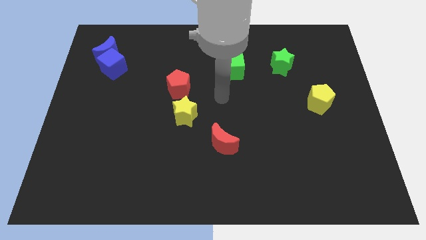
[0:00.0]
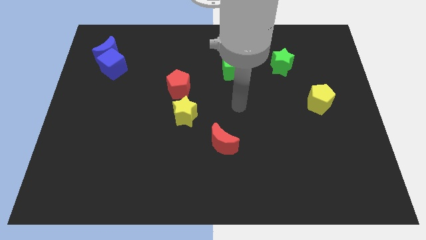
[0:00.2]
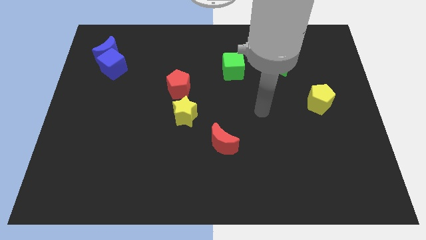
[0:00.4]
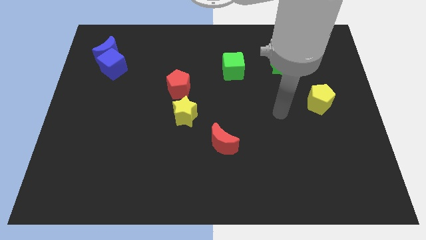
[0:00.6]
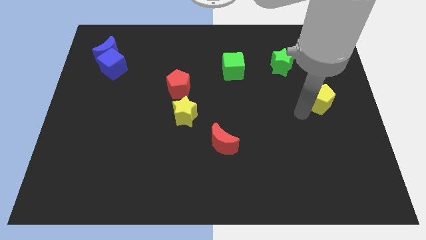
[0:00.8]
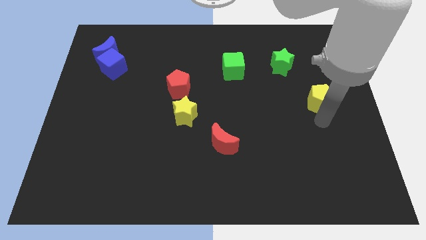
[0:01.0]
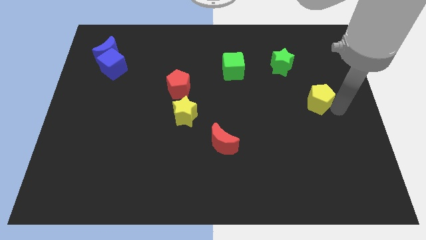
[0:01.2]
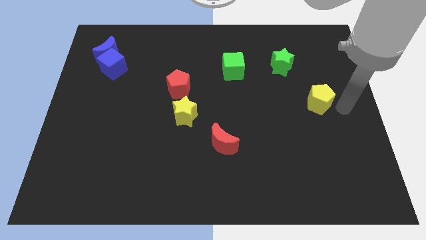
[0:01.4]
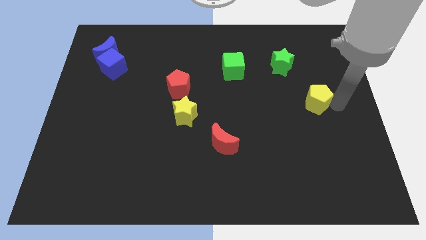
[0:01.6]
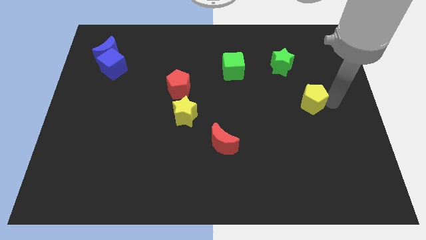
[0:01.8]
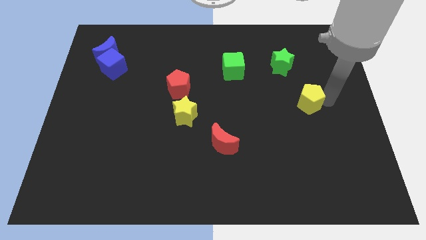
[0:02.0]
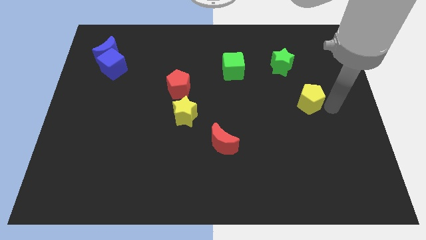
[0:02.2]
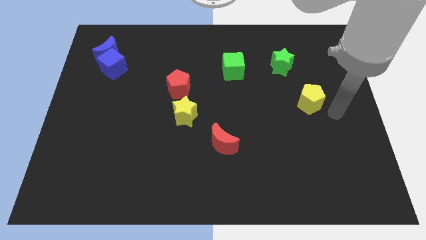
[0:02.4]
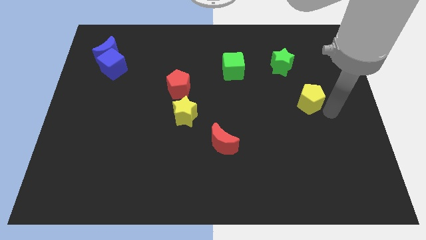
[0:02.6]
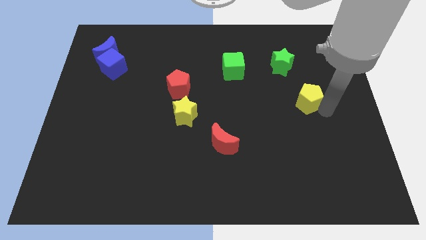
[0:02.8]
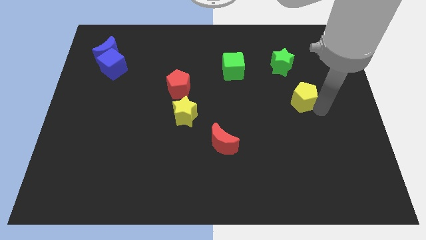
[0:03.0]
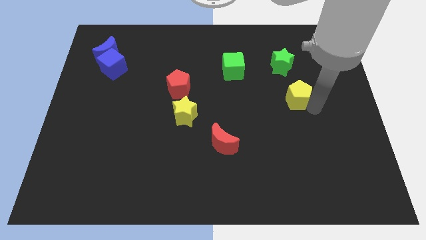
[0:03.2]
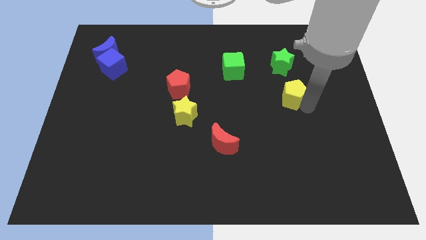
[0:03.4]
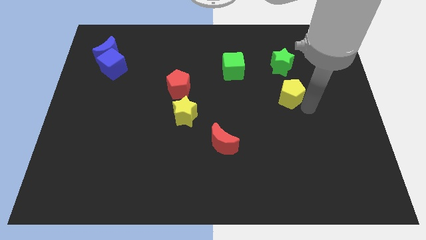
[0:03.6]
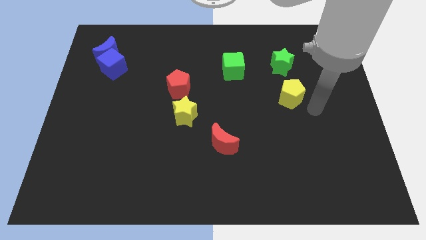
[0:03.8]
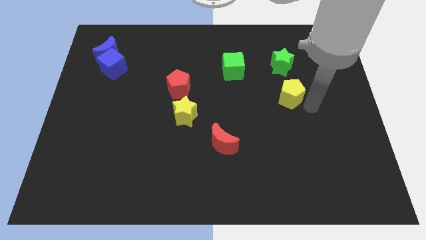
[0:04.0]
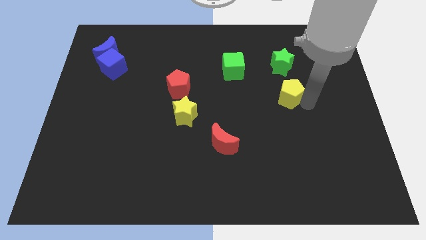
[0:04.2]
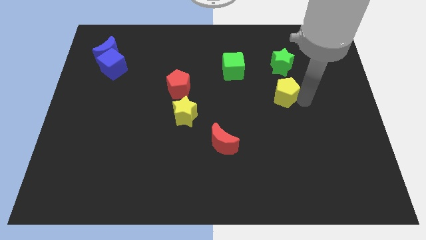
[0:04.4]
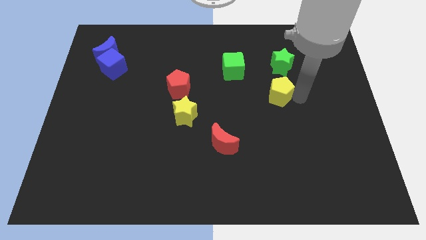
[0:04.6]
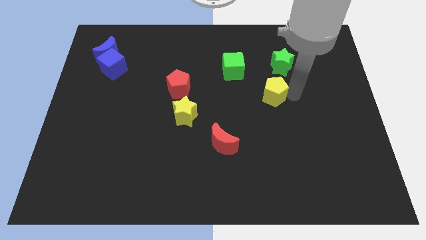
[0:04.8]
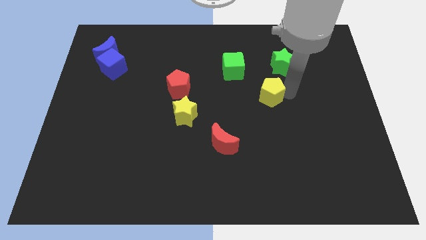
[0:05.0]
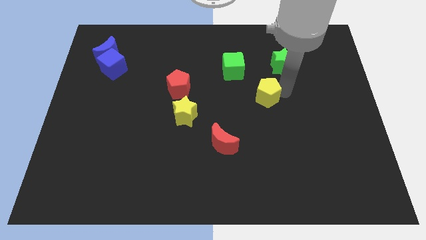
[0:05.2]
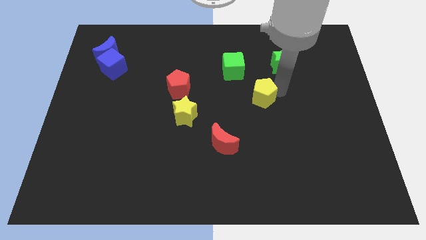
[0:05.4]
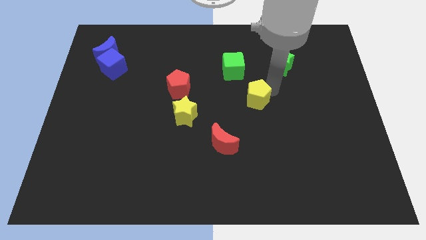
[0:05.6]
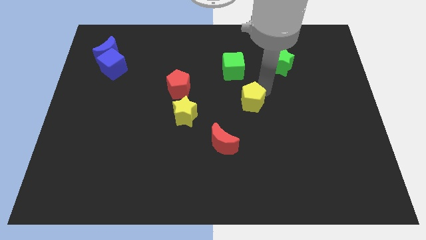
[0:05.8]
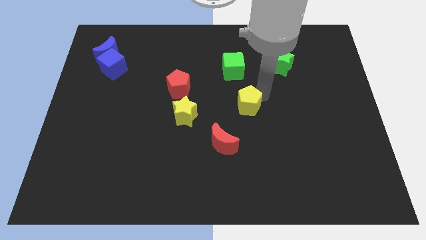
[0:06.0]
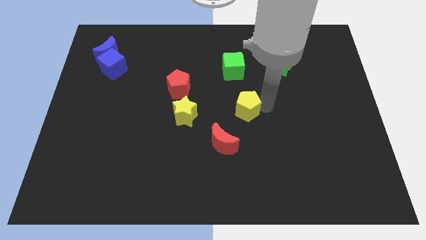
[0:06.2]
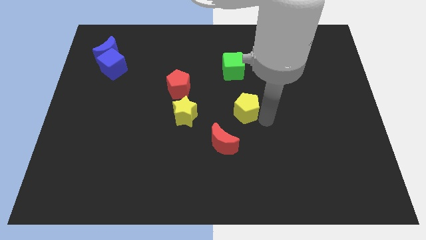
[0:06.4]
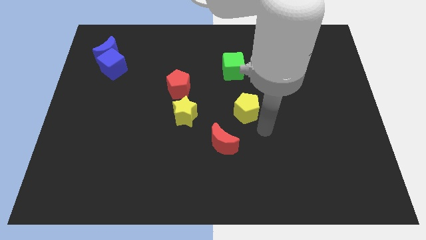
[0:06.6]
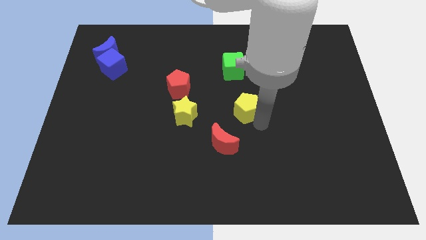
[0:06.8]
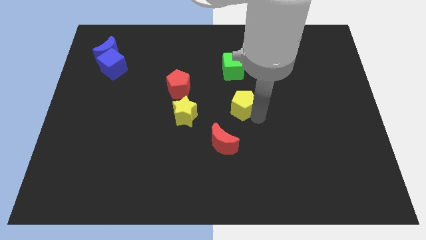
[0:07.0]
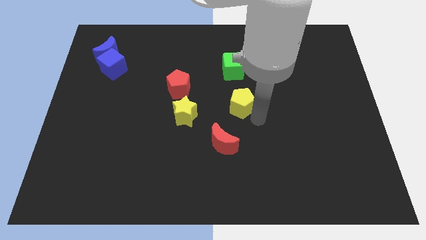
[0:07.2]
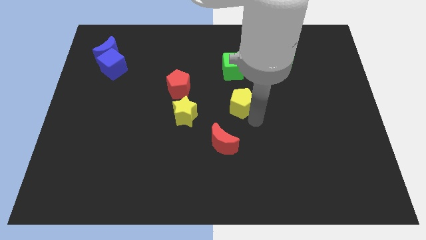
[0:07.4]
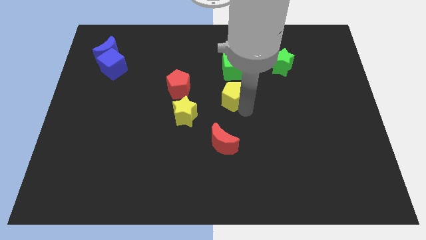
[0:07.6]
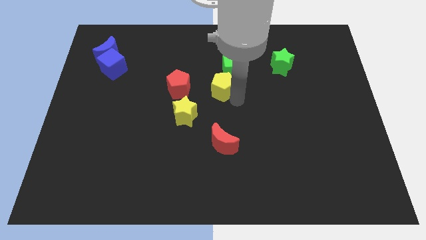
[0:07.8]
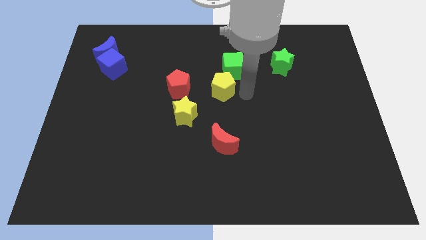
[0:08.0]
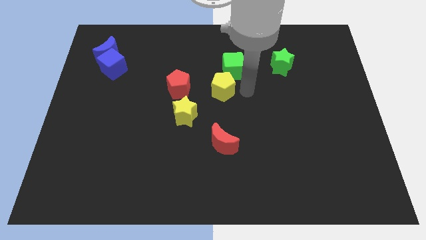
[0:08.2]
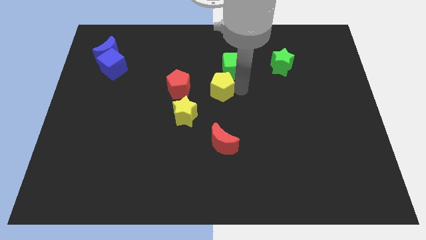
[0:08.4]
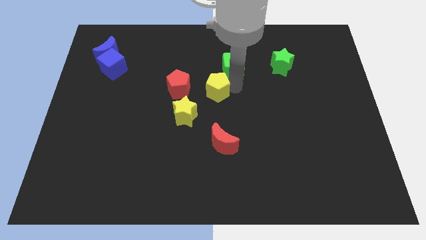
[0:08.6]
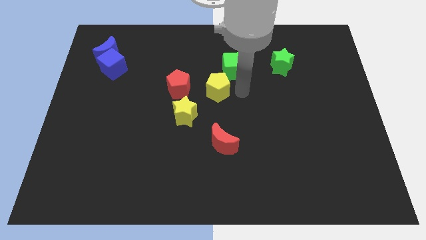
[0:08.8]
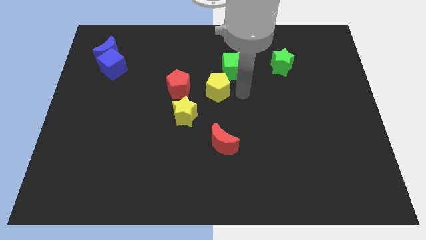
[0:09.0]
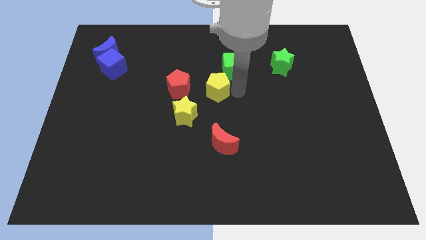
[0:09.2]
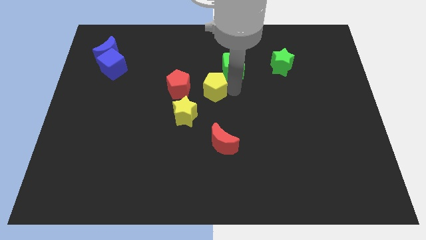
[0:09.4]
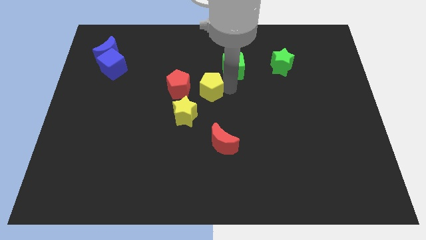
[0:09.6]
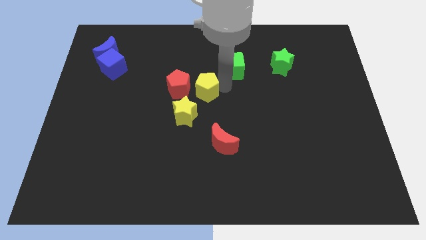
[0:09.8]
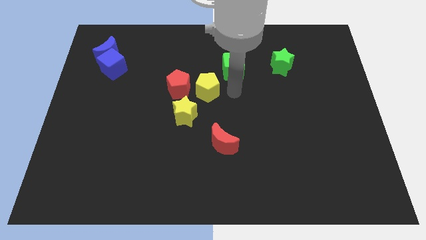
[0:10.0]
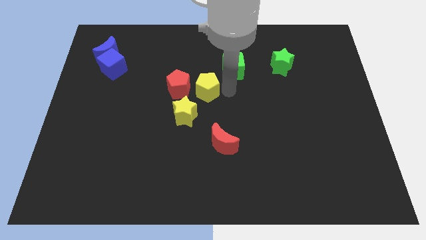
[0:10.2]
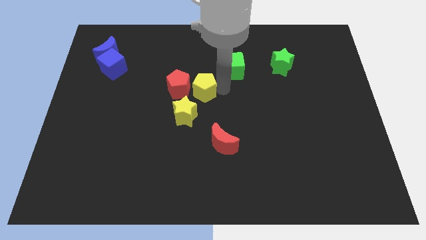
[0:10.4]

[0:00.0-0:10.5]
slide the yellow pentagon to the red pentagon

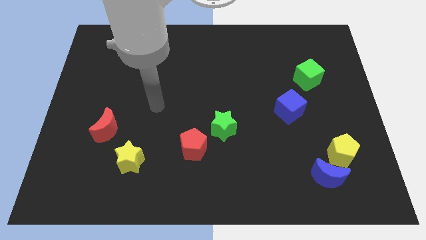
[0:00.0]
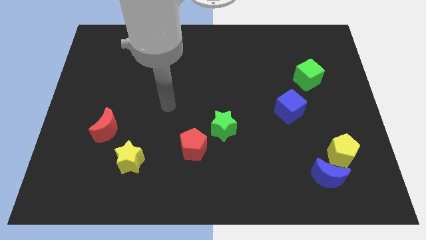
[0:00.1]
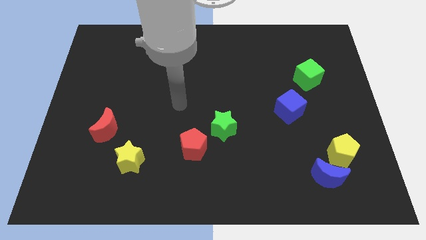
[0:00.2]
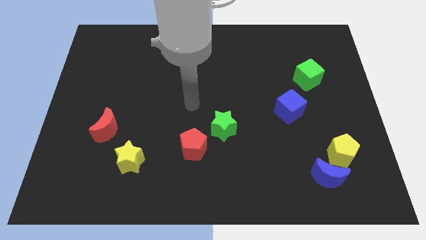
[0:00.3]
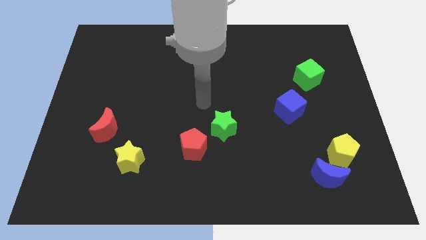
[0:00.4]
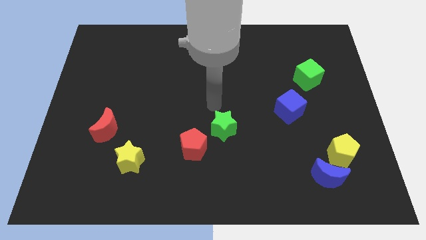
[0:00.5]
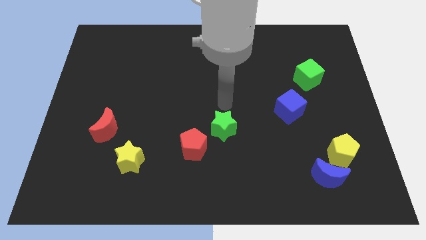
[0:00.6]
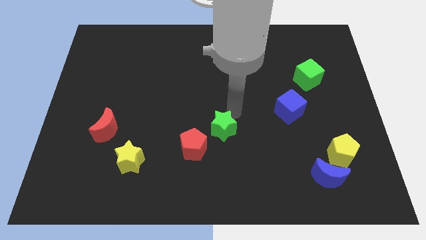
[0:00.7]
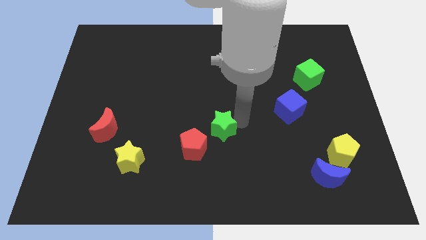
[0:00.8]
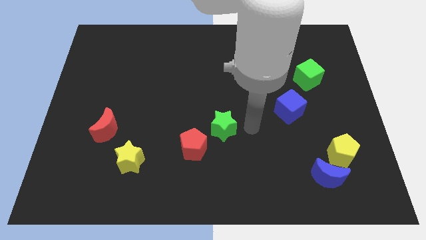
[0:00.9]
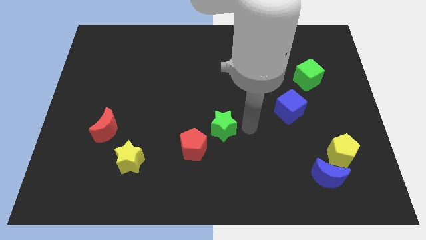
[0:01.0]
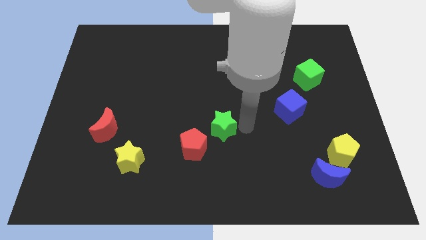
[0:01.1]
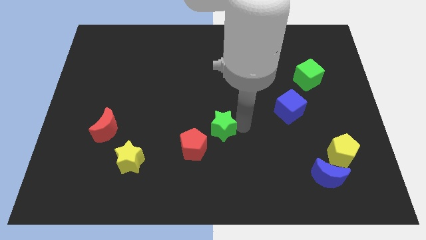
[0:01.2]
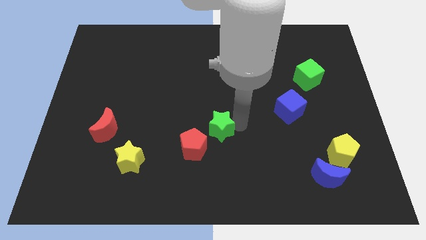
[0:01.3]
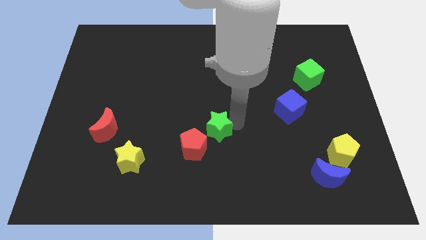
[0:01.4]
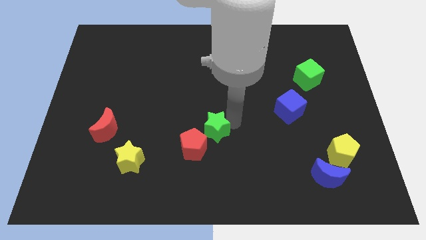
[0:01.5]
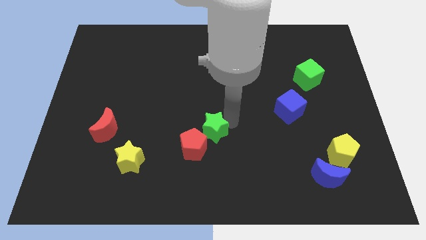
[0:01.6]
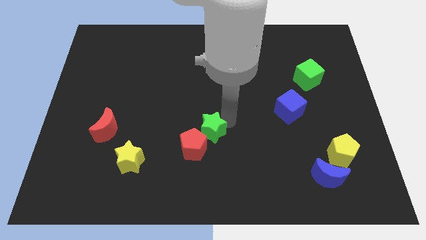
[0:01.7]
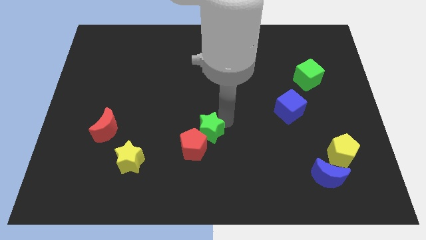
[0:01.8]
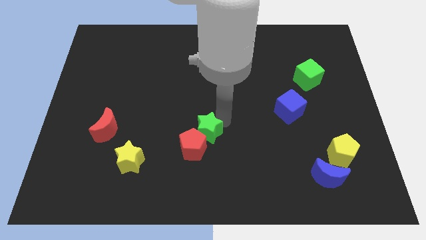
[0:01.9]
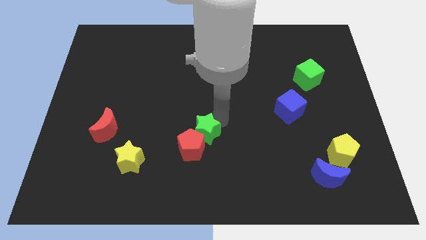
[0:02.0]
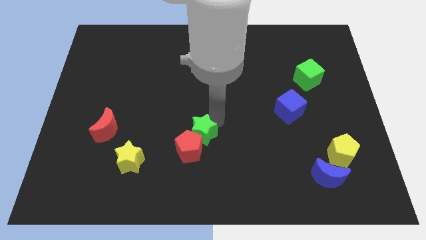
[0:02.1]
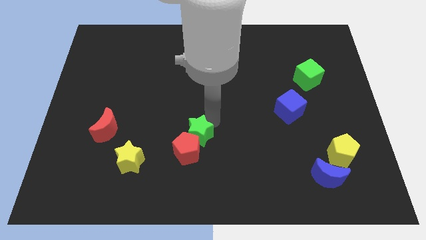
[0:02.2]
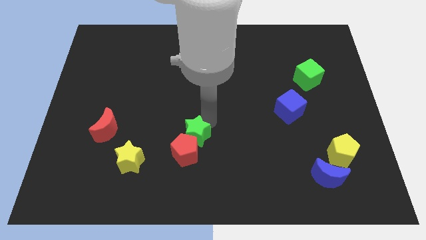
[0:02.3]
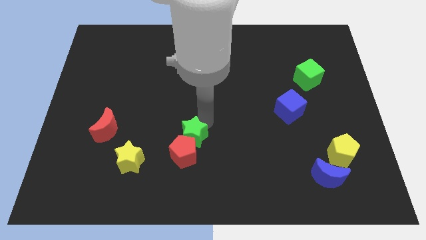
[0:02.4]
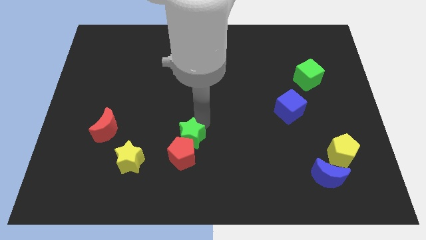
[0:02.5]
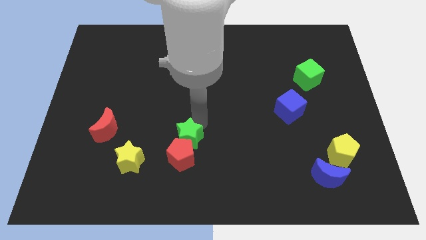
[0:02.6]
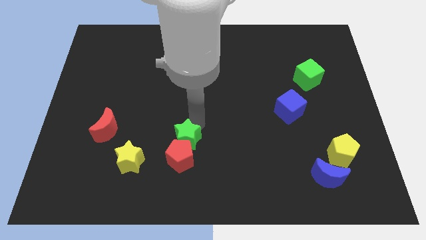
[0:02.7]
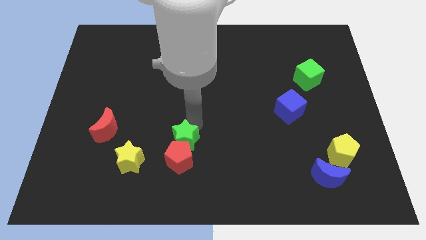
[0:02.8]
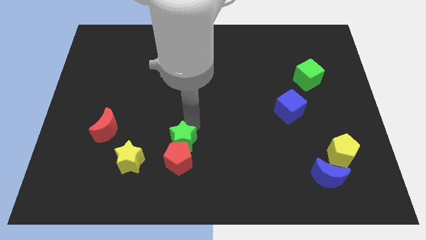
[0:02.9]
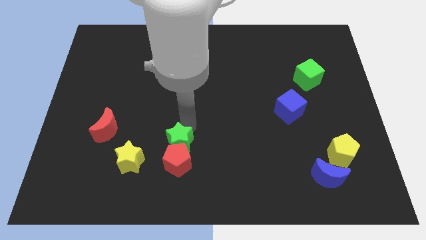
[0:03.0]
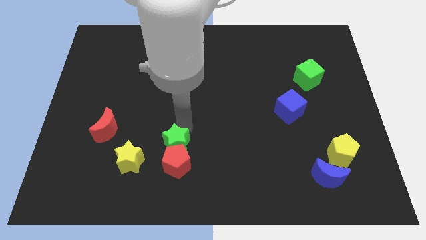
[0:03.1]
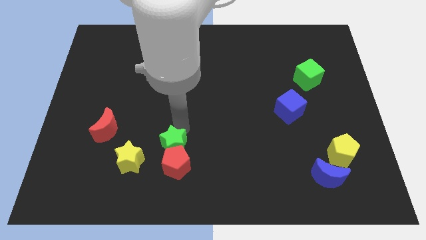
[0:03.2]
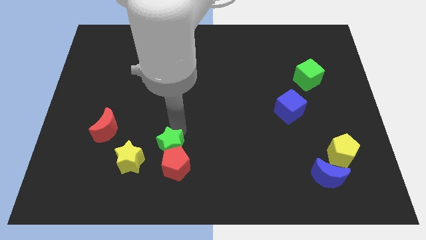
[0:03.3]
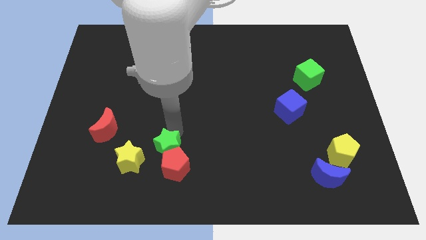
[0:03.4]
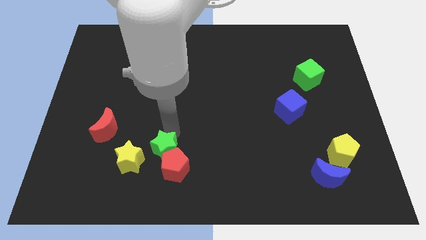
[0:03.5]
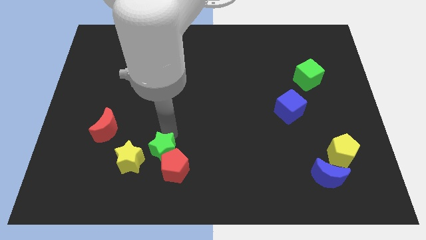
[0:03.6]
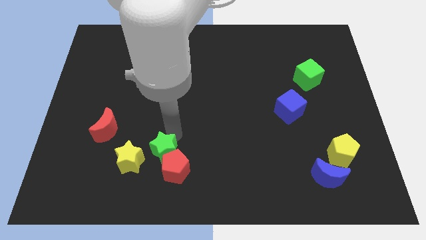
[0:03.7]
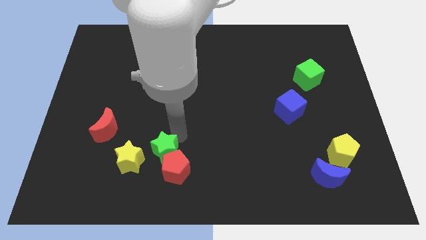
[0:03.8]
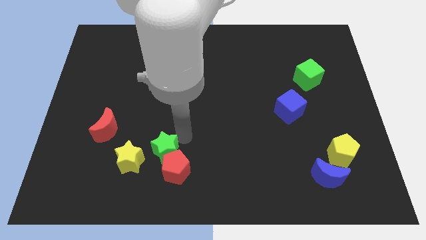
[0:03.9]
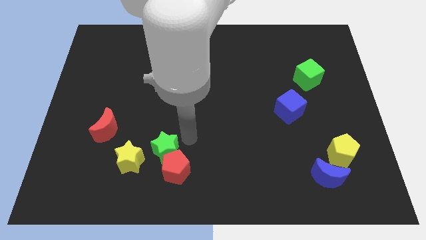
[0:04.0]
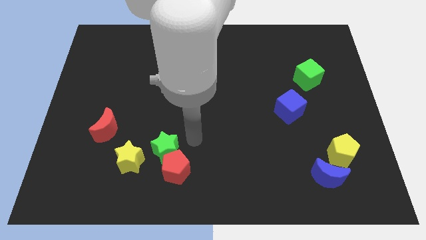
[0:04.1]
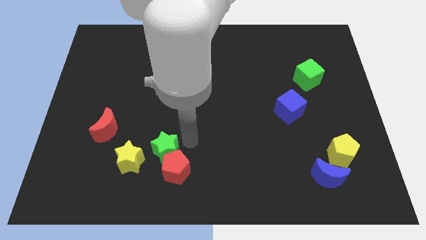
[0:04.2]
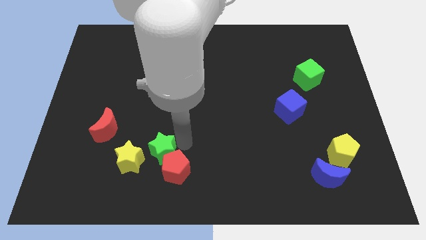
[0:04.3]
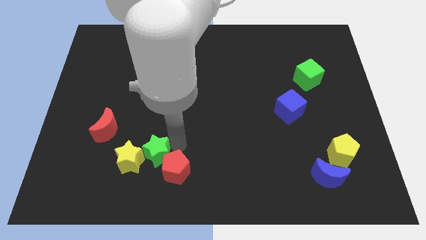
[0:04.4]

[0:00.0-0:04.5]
slide the green star towards the yellow star
